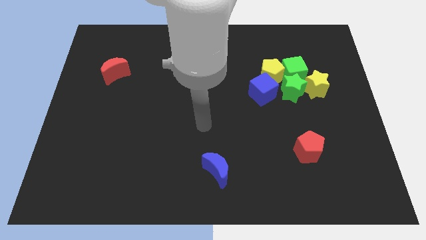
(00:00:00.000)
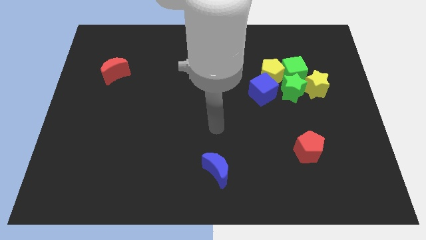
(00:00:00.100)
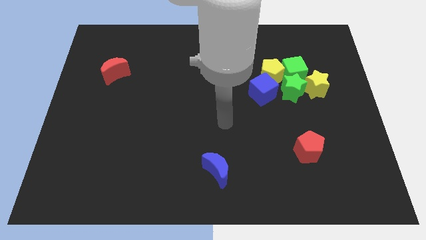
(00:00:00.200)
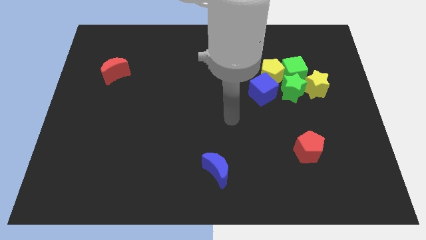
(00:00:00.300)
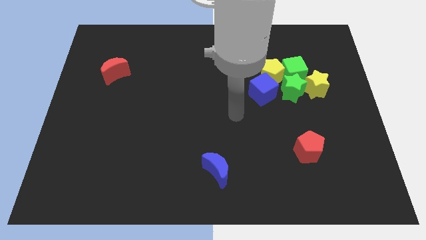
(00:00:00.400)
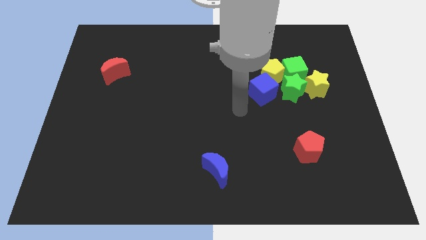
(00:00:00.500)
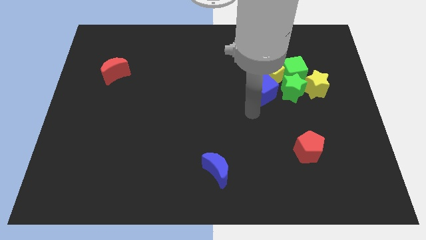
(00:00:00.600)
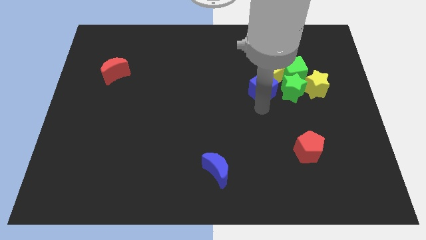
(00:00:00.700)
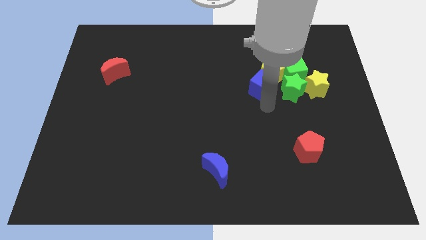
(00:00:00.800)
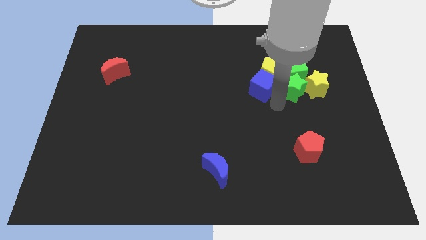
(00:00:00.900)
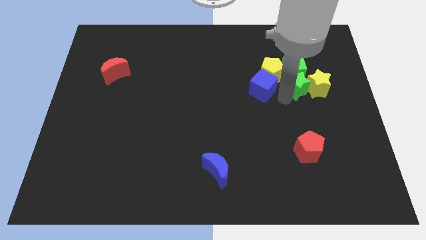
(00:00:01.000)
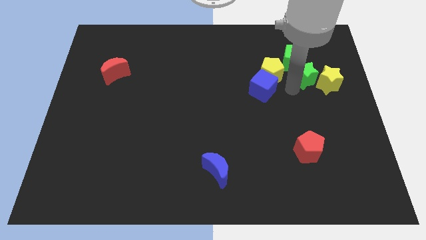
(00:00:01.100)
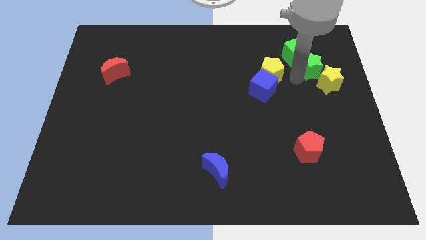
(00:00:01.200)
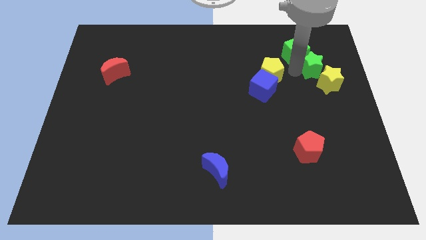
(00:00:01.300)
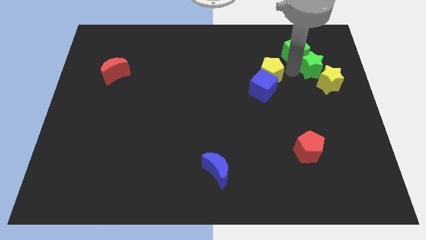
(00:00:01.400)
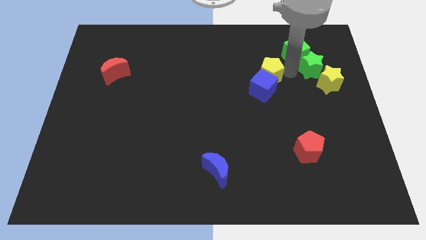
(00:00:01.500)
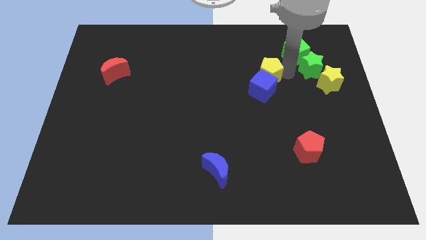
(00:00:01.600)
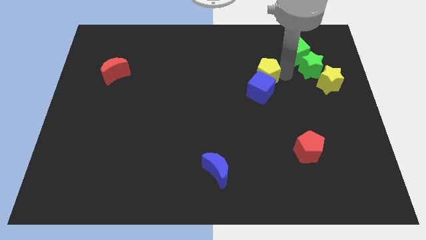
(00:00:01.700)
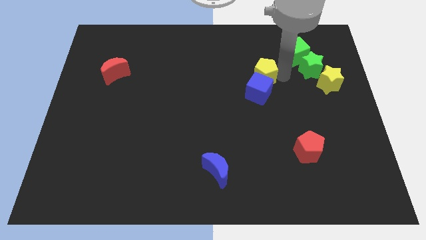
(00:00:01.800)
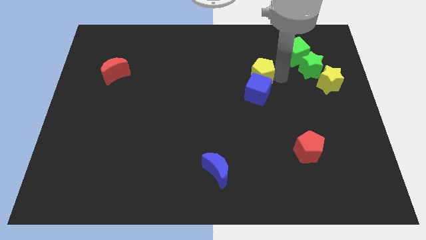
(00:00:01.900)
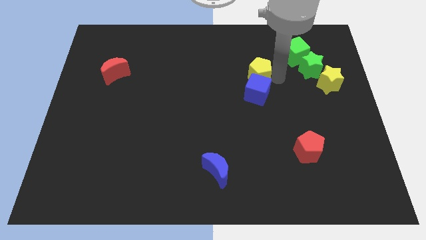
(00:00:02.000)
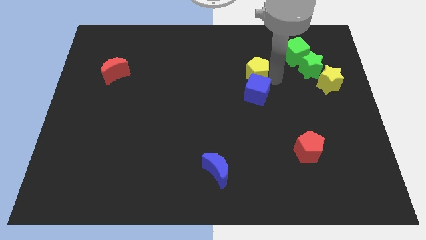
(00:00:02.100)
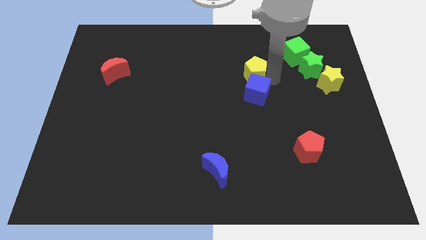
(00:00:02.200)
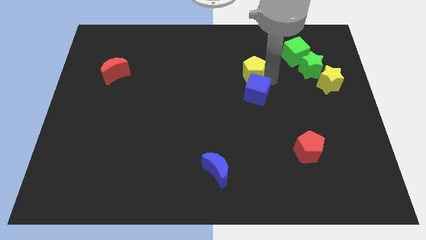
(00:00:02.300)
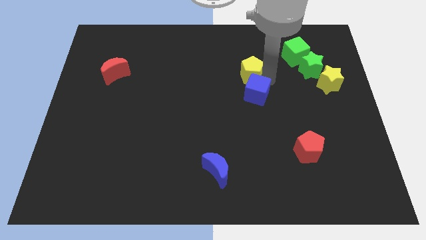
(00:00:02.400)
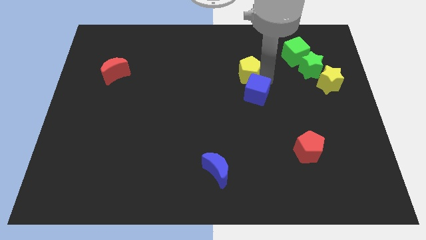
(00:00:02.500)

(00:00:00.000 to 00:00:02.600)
separate the yellow pentagon from the green cube, blue cube, and green star

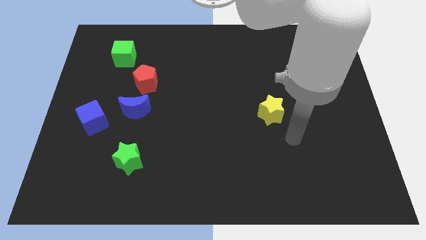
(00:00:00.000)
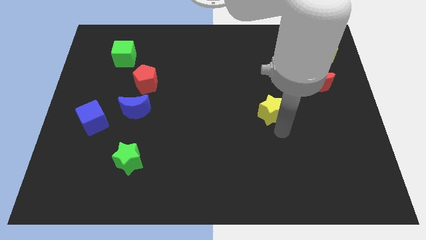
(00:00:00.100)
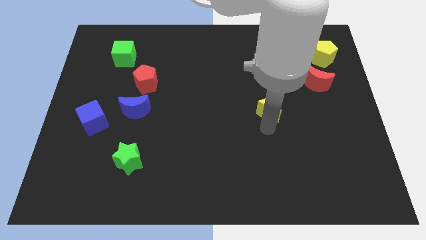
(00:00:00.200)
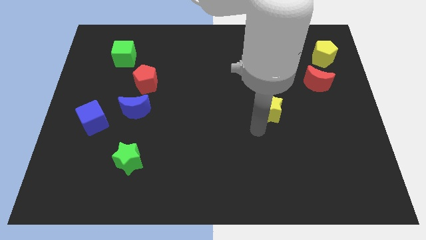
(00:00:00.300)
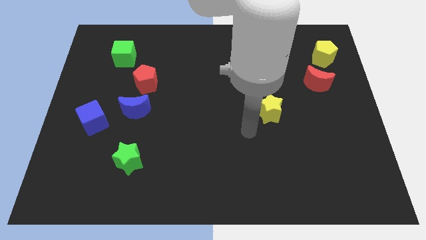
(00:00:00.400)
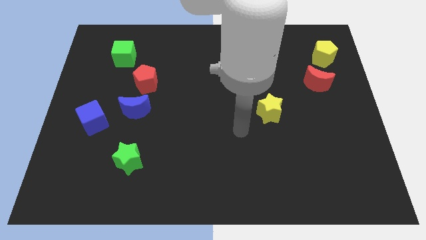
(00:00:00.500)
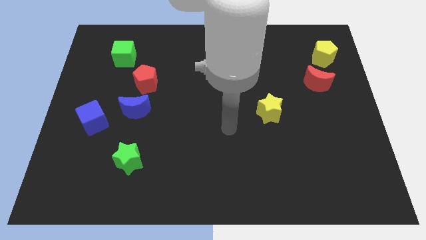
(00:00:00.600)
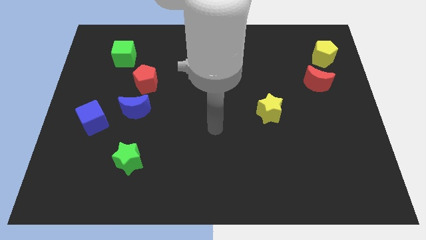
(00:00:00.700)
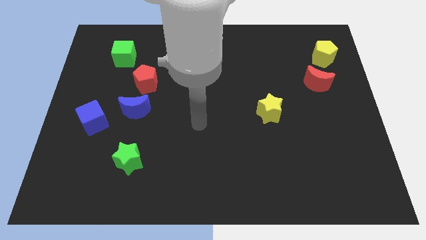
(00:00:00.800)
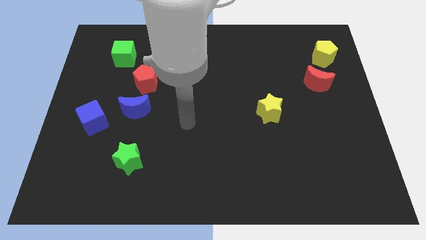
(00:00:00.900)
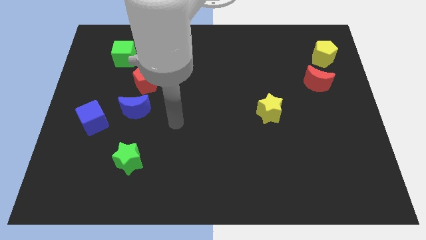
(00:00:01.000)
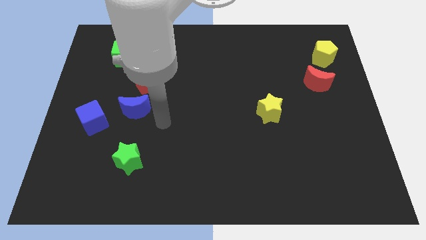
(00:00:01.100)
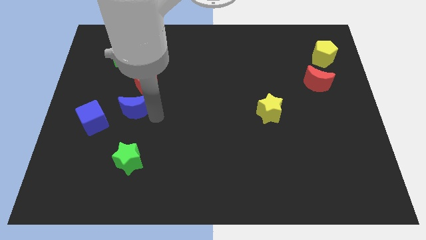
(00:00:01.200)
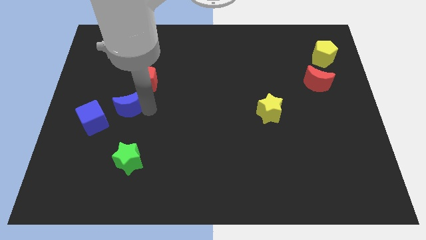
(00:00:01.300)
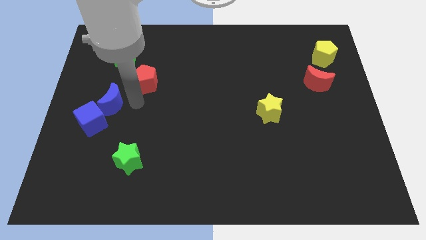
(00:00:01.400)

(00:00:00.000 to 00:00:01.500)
pull the red pentagon apart from the blue moon

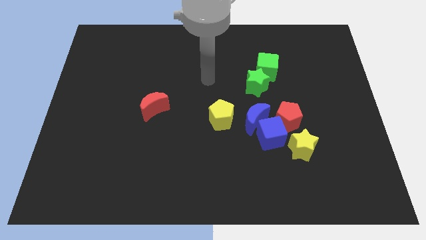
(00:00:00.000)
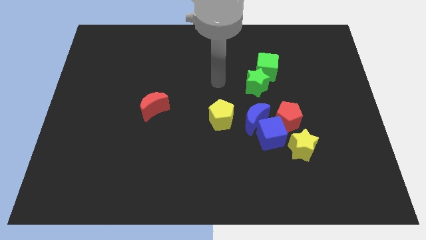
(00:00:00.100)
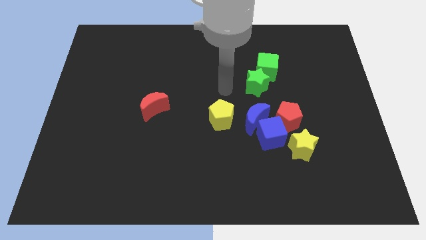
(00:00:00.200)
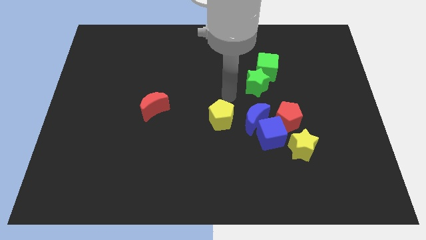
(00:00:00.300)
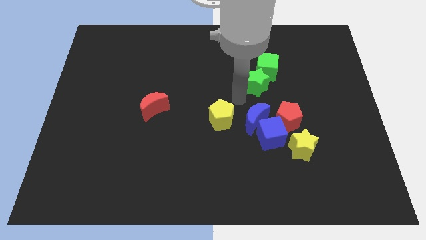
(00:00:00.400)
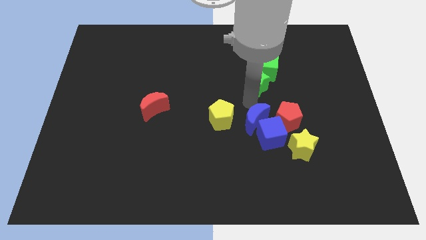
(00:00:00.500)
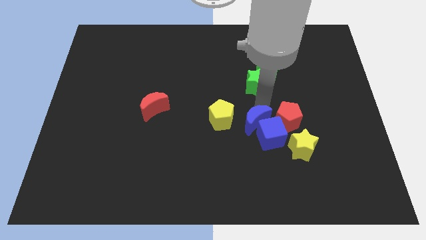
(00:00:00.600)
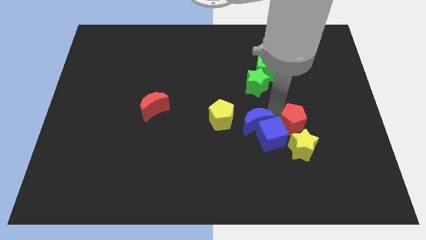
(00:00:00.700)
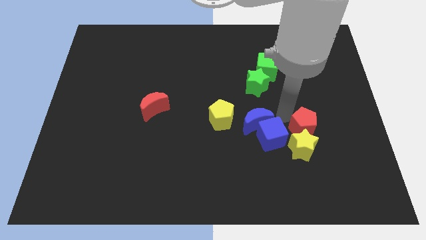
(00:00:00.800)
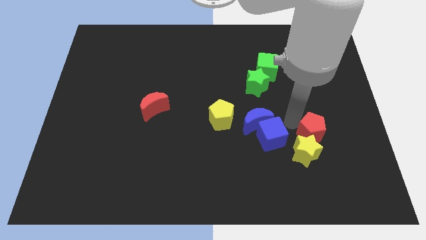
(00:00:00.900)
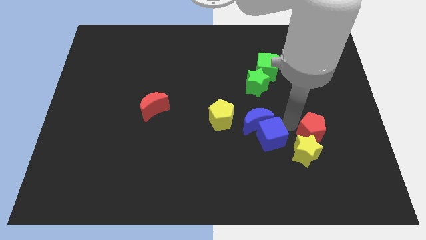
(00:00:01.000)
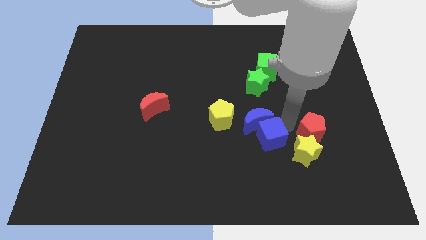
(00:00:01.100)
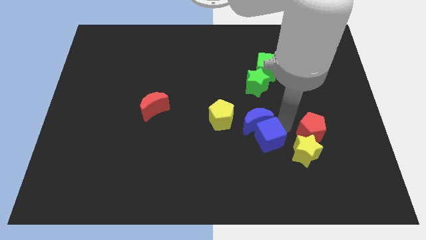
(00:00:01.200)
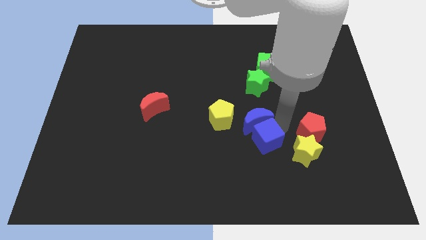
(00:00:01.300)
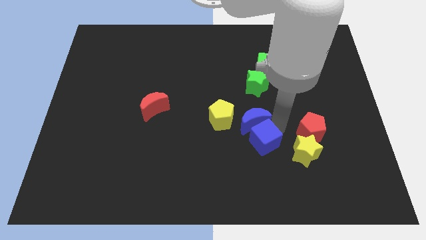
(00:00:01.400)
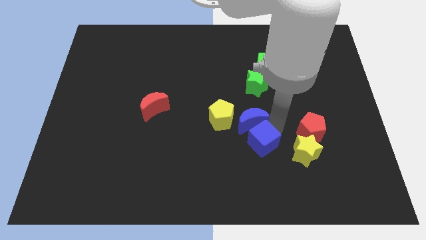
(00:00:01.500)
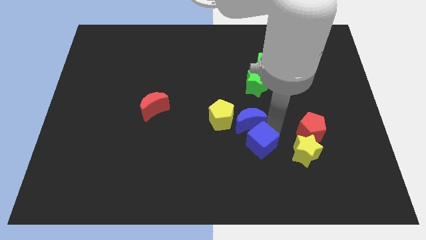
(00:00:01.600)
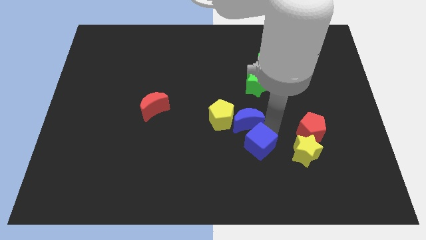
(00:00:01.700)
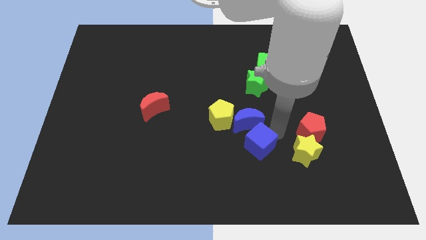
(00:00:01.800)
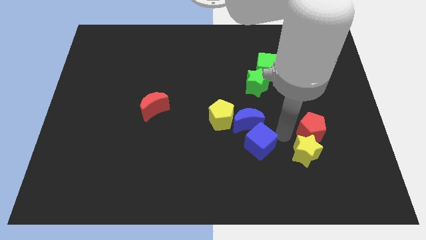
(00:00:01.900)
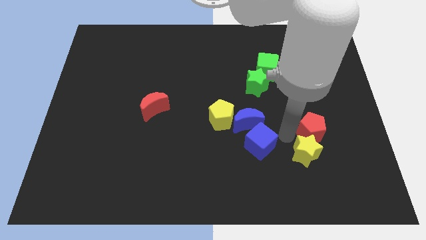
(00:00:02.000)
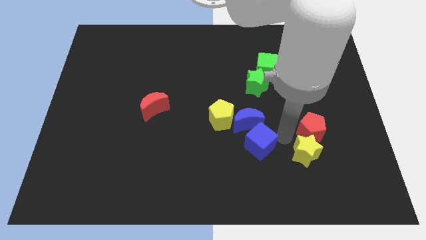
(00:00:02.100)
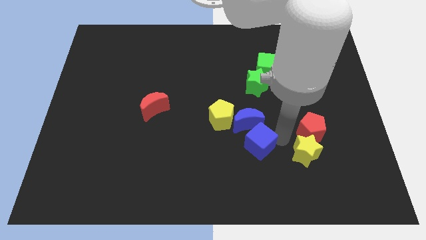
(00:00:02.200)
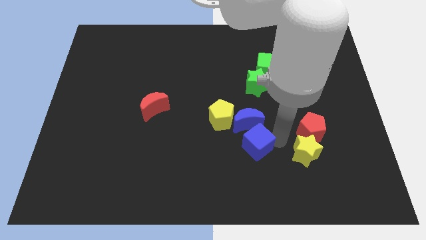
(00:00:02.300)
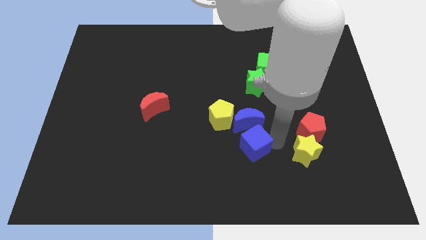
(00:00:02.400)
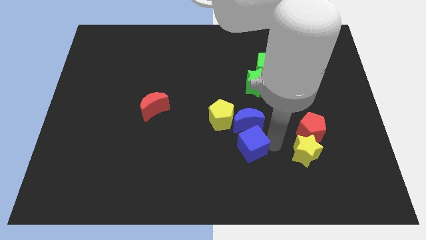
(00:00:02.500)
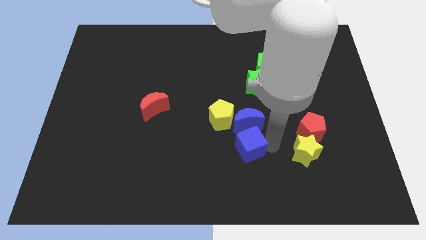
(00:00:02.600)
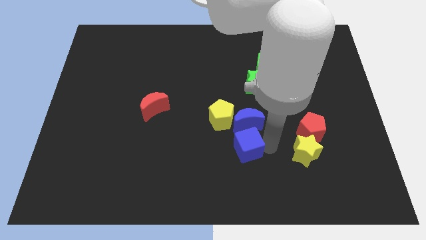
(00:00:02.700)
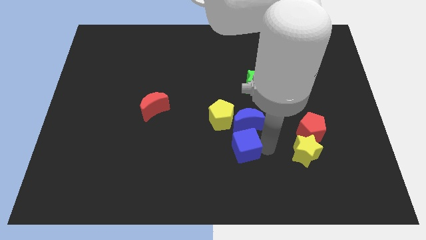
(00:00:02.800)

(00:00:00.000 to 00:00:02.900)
pull the blue cube apart from the blue moon, red pentagon, and yellow star

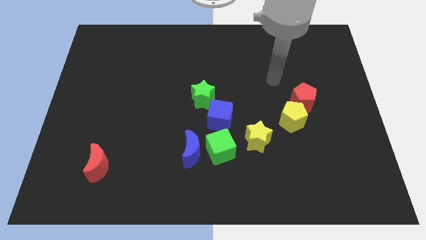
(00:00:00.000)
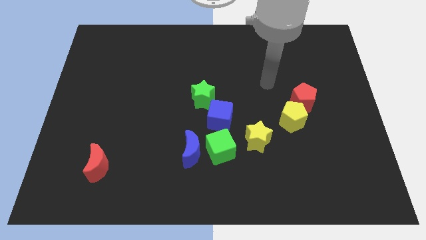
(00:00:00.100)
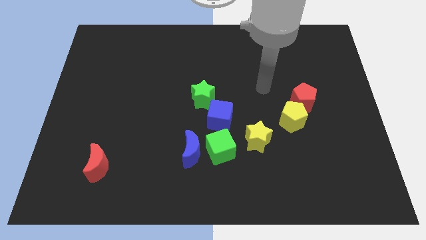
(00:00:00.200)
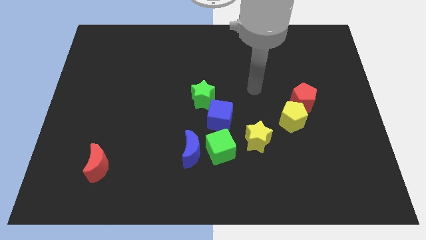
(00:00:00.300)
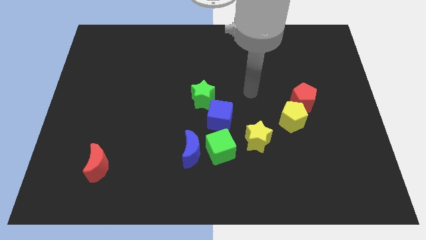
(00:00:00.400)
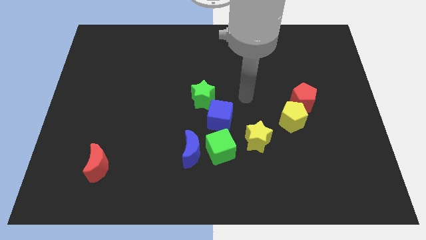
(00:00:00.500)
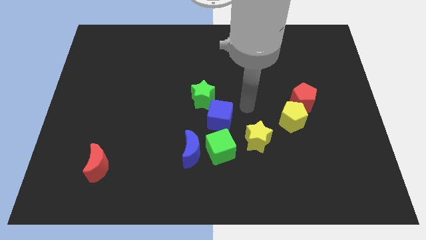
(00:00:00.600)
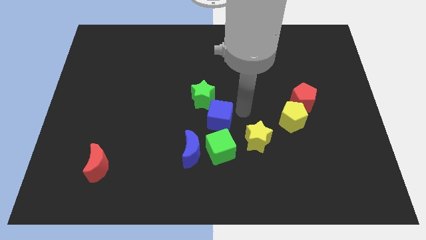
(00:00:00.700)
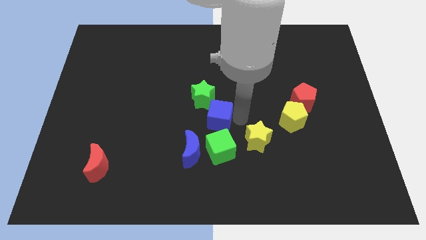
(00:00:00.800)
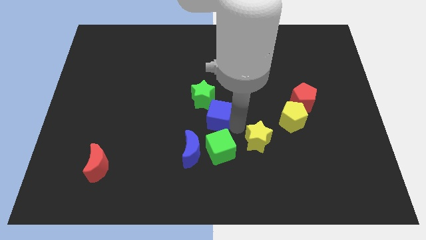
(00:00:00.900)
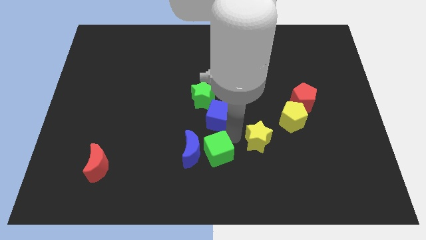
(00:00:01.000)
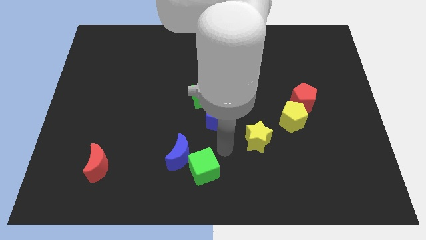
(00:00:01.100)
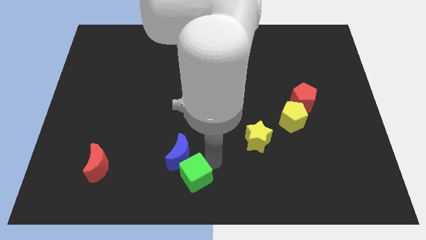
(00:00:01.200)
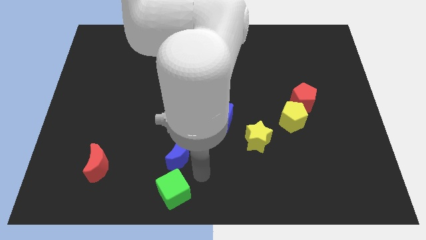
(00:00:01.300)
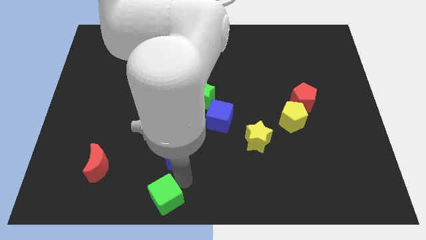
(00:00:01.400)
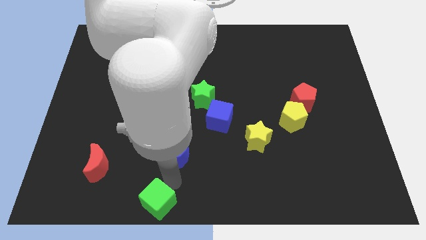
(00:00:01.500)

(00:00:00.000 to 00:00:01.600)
move the blue moon away from the green cube

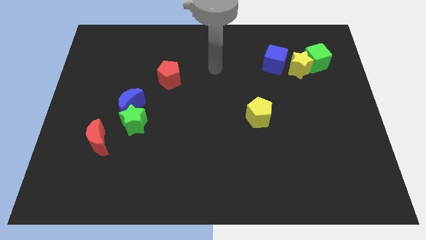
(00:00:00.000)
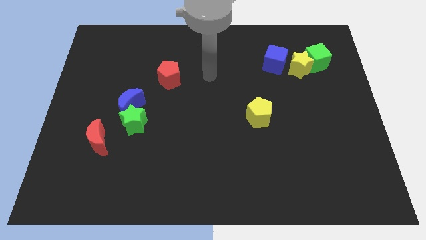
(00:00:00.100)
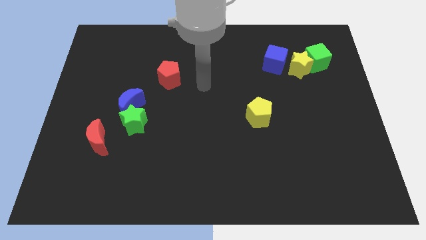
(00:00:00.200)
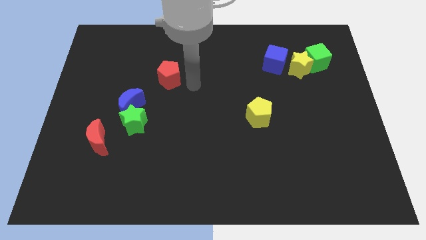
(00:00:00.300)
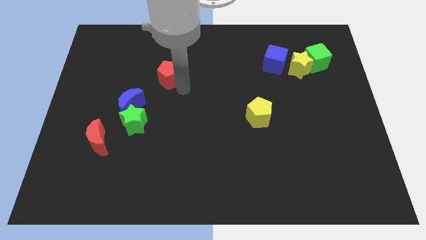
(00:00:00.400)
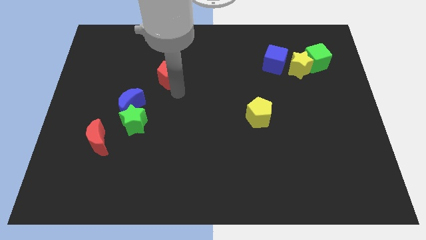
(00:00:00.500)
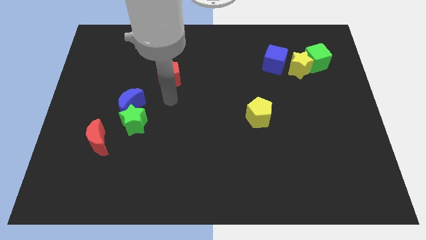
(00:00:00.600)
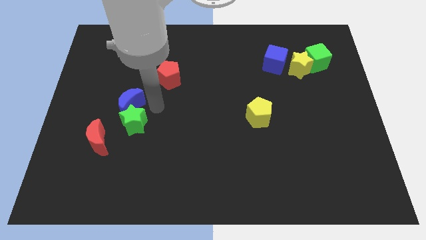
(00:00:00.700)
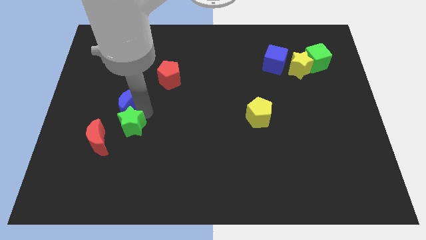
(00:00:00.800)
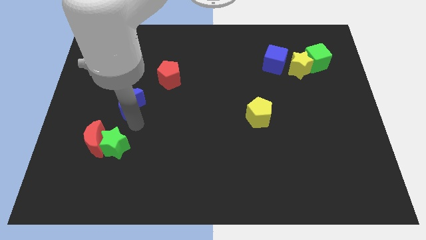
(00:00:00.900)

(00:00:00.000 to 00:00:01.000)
pull the blue moon apart from the green star
